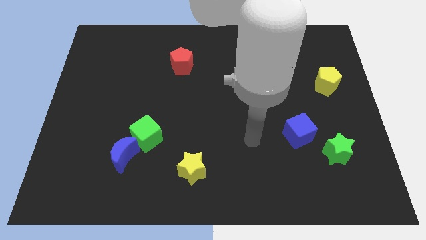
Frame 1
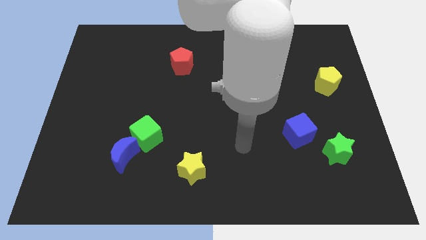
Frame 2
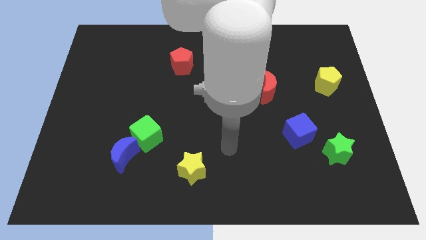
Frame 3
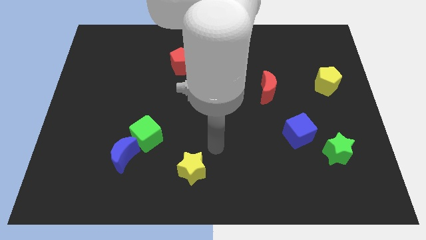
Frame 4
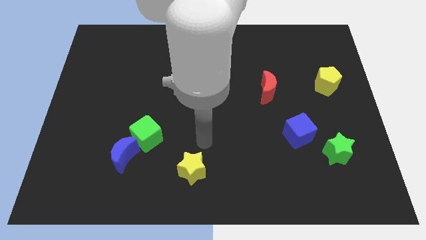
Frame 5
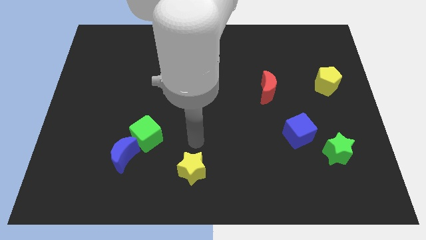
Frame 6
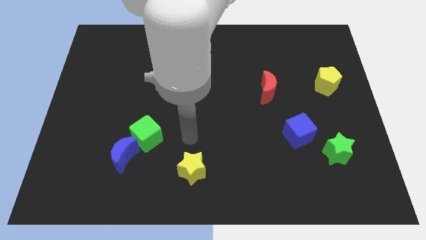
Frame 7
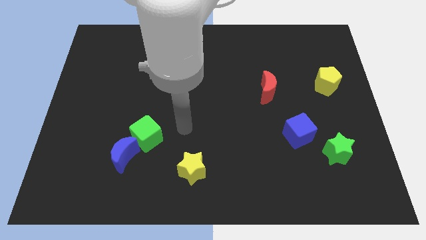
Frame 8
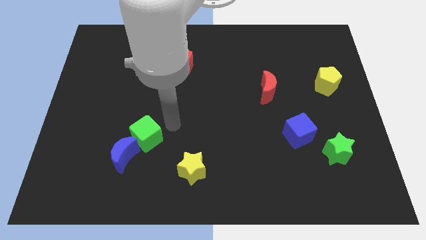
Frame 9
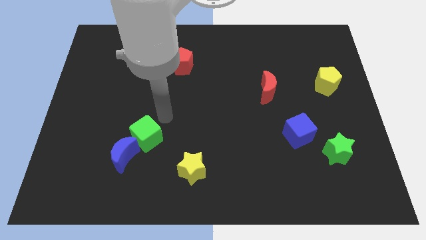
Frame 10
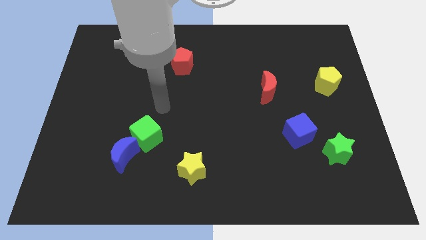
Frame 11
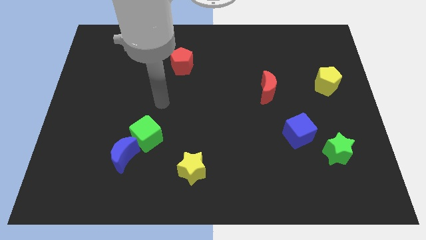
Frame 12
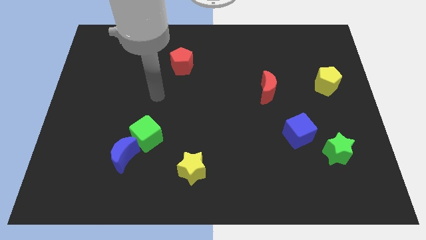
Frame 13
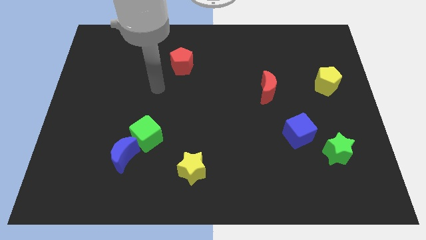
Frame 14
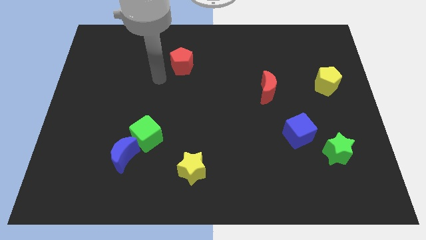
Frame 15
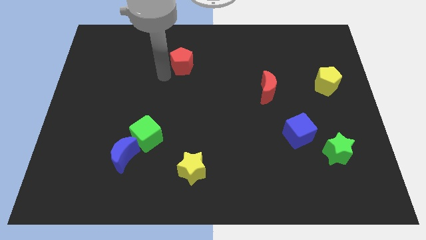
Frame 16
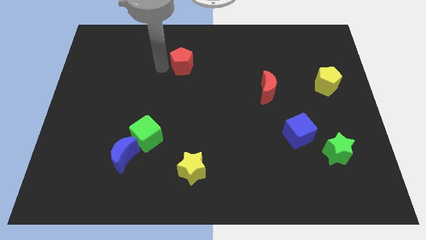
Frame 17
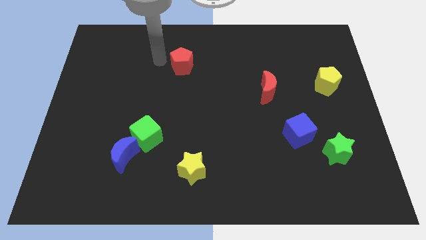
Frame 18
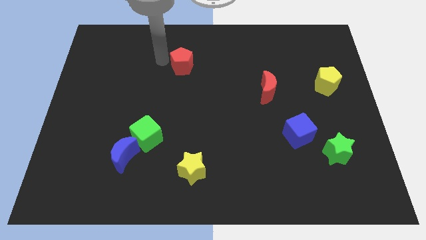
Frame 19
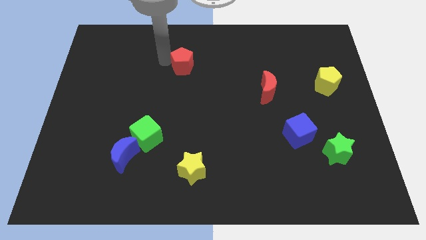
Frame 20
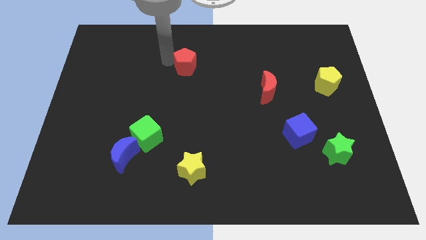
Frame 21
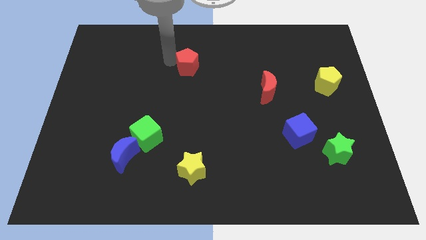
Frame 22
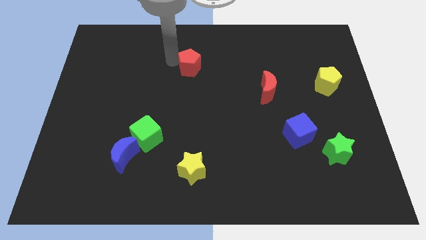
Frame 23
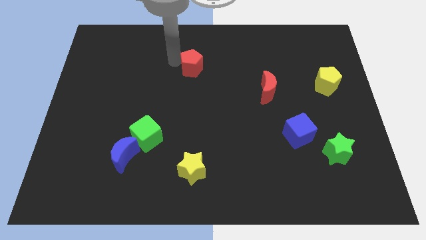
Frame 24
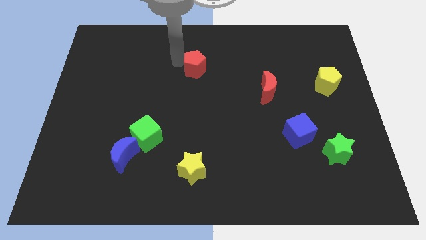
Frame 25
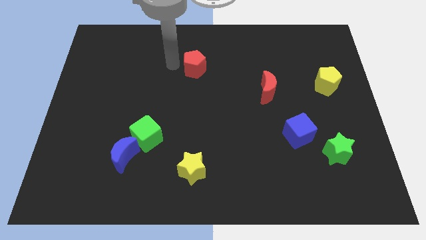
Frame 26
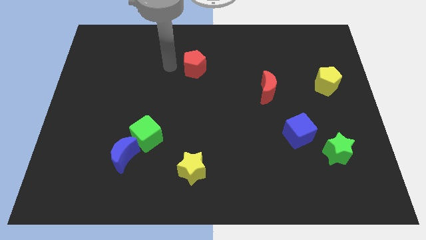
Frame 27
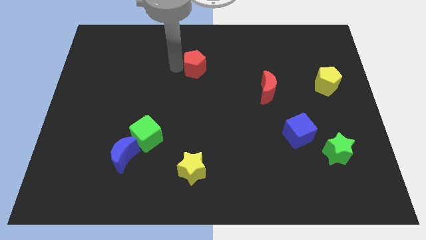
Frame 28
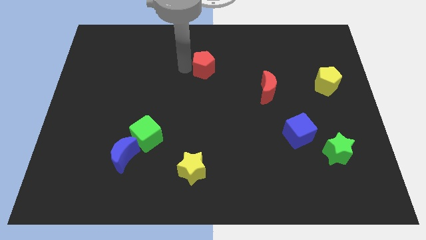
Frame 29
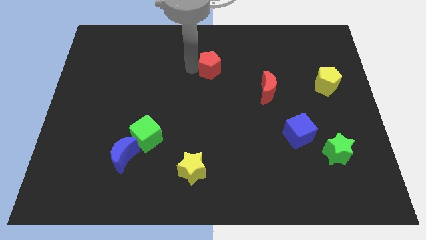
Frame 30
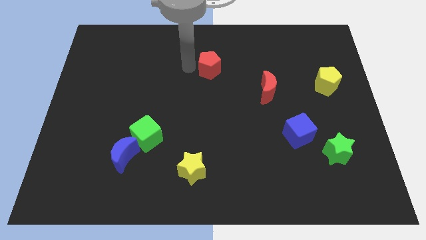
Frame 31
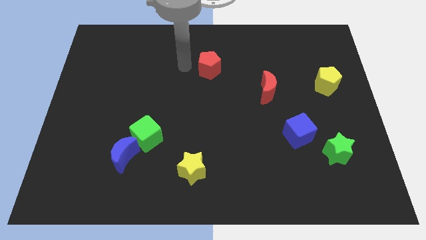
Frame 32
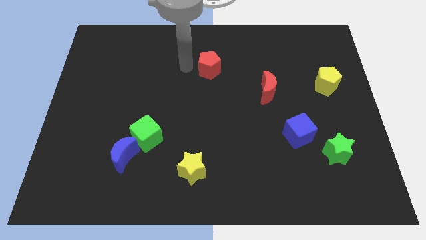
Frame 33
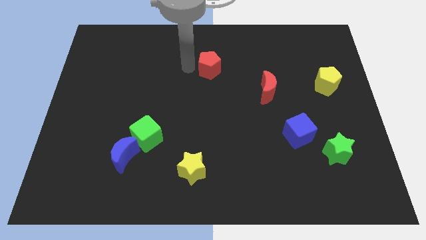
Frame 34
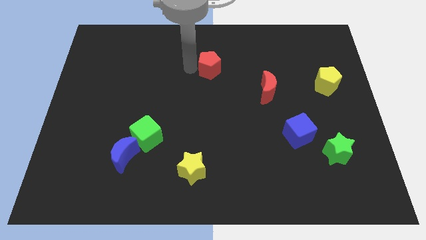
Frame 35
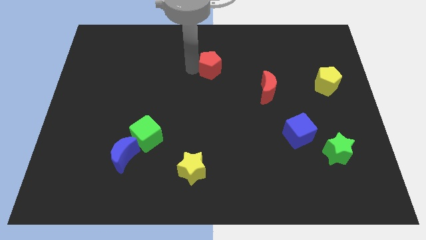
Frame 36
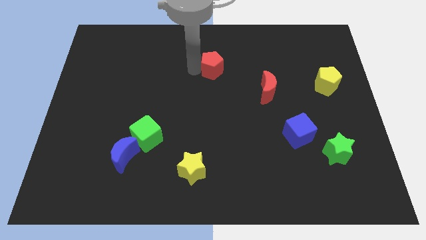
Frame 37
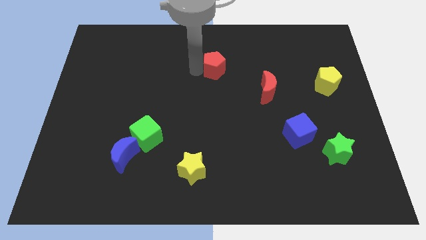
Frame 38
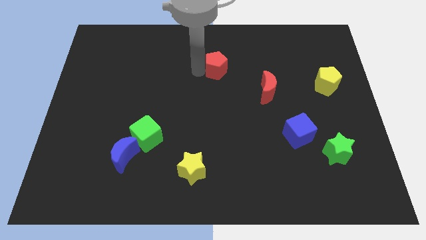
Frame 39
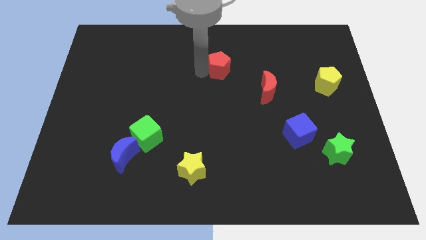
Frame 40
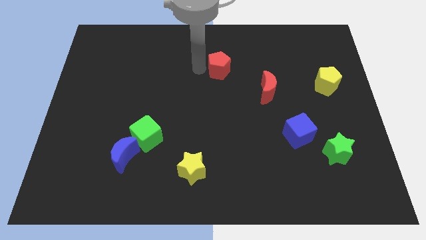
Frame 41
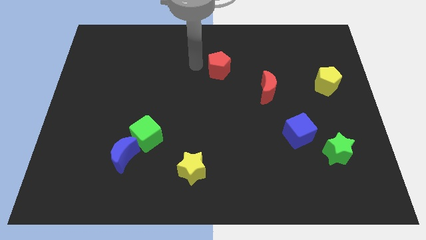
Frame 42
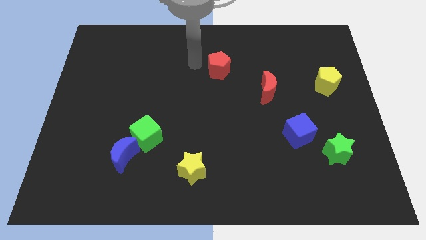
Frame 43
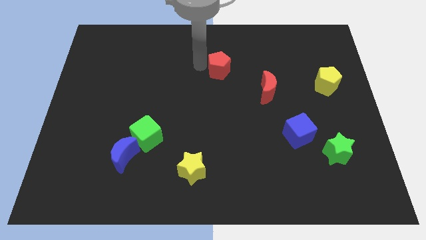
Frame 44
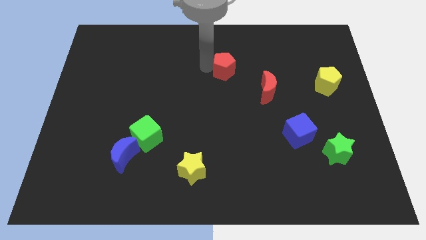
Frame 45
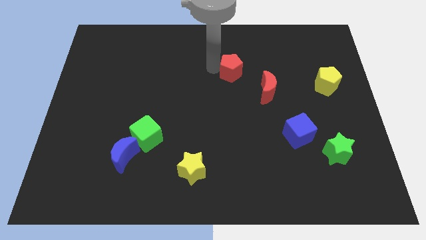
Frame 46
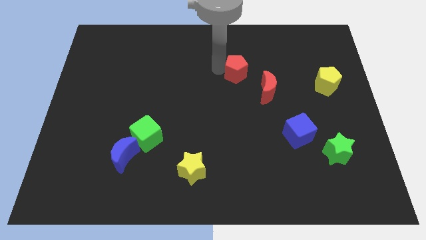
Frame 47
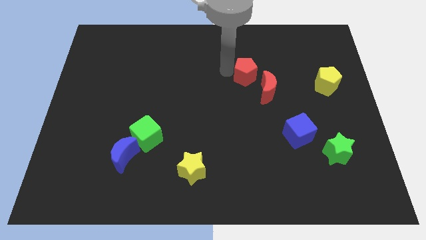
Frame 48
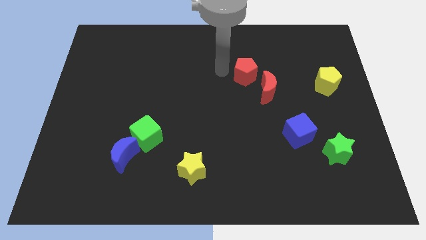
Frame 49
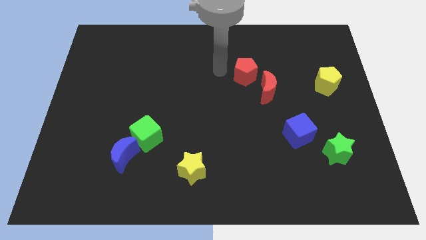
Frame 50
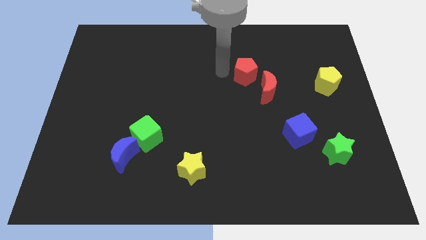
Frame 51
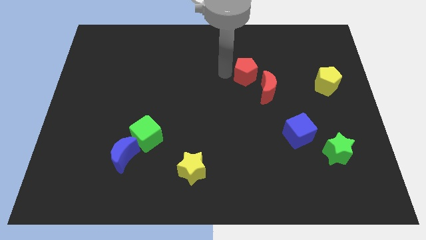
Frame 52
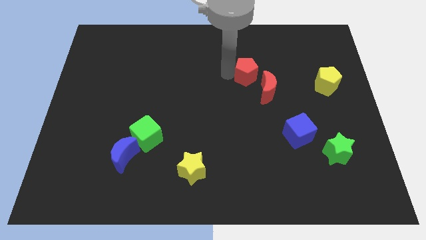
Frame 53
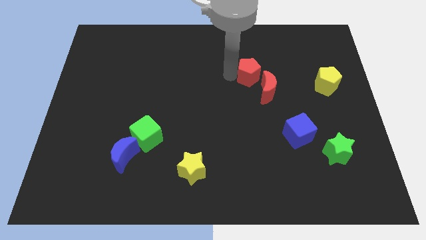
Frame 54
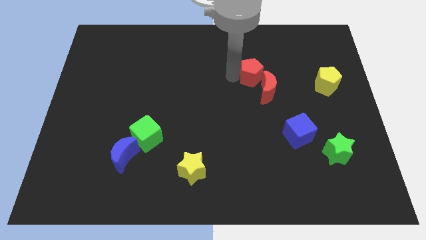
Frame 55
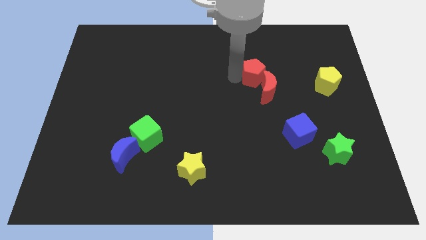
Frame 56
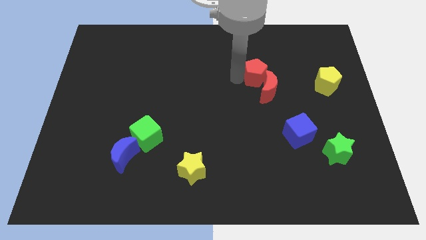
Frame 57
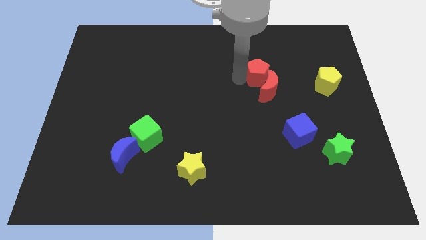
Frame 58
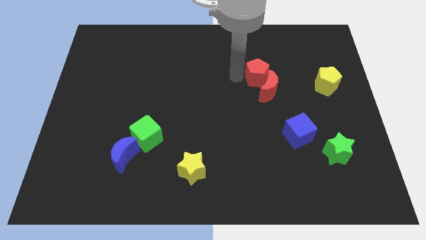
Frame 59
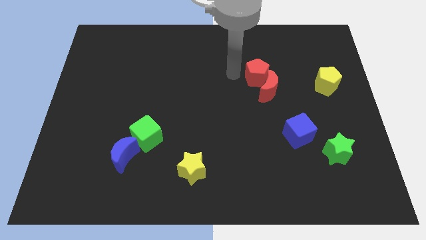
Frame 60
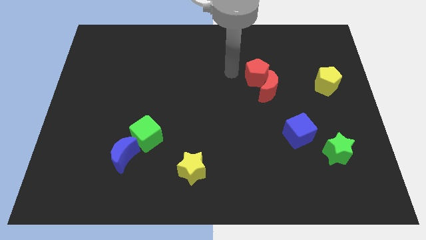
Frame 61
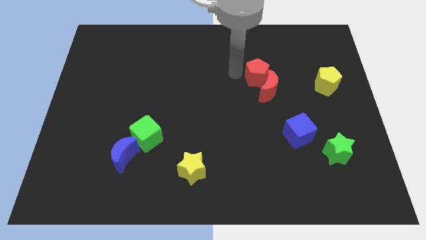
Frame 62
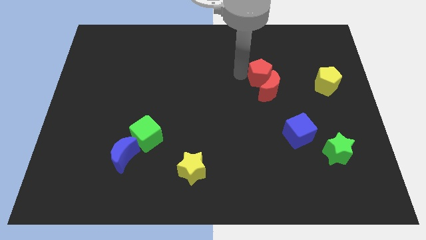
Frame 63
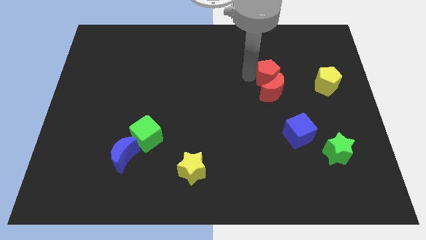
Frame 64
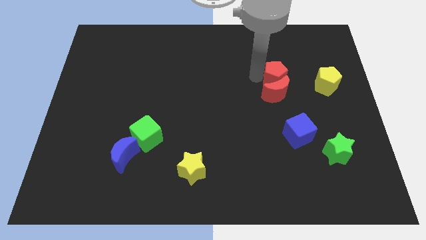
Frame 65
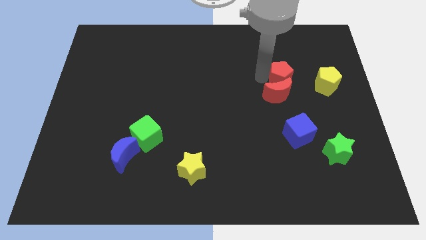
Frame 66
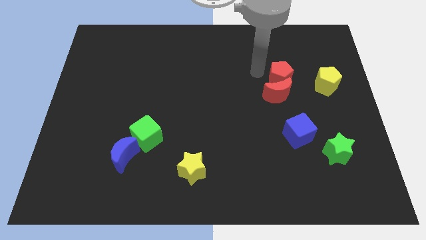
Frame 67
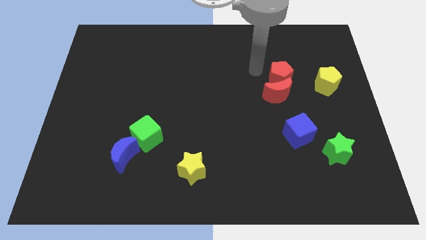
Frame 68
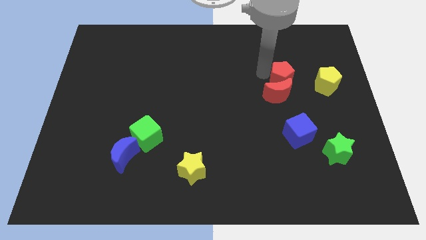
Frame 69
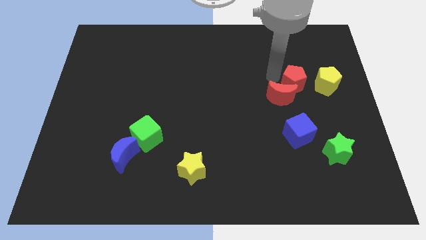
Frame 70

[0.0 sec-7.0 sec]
put the red pentagon to the right of the red moon
